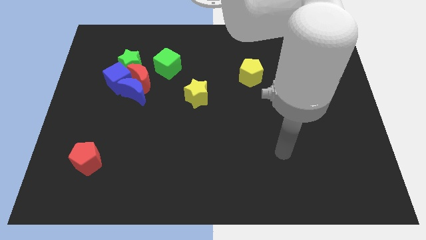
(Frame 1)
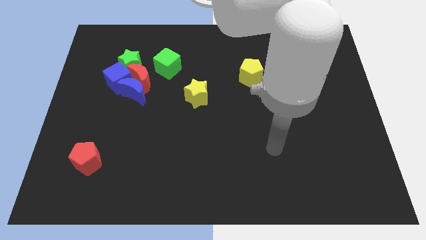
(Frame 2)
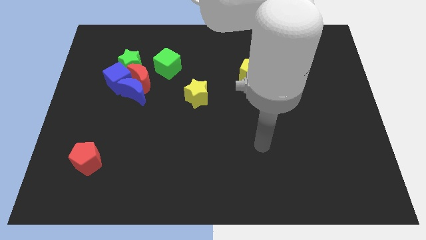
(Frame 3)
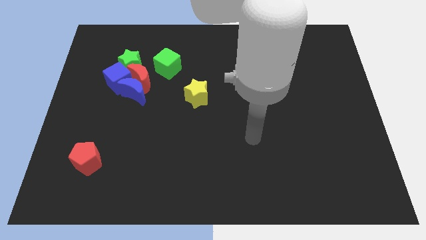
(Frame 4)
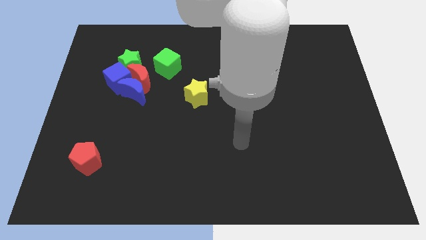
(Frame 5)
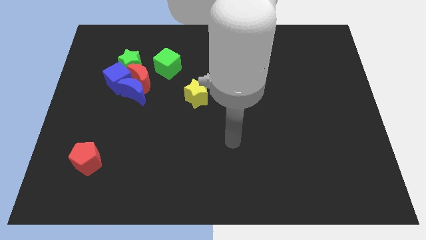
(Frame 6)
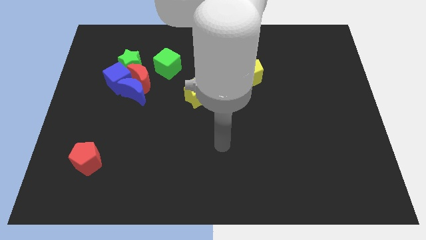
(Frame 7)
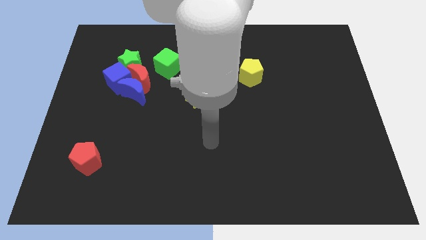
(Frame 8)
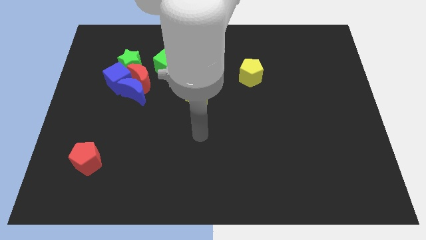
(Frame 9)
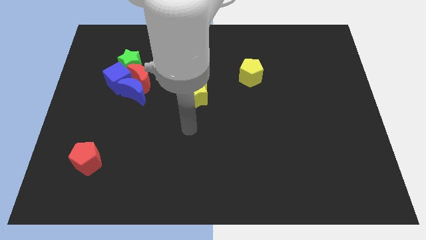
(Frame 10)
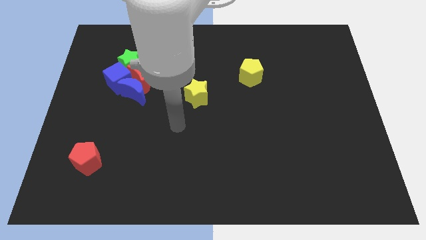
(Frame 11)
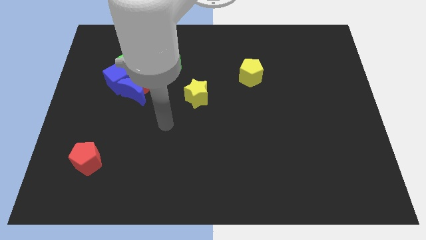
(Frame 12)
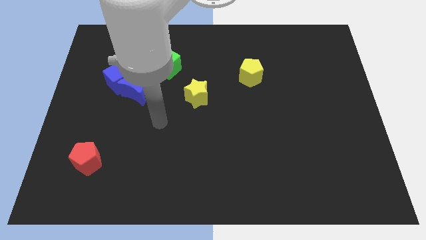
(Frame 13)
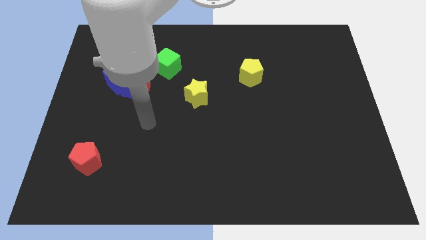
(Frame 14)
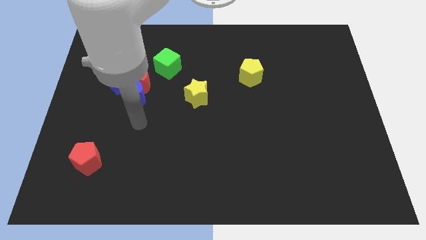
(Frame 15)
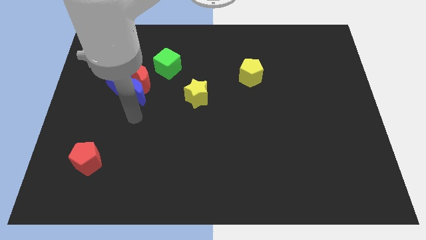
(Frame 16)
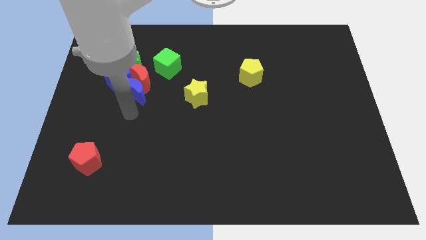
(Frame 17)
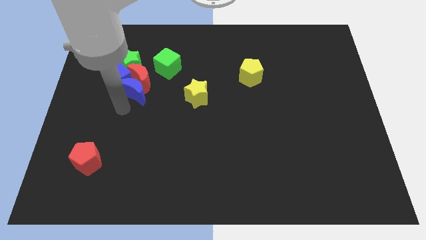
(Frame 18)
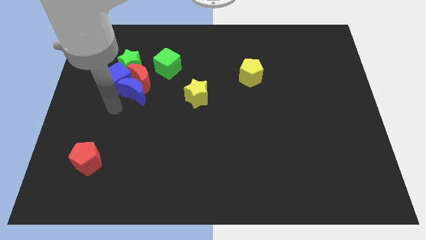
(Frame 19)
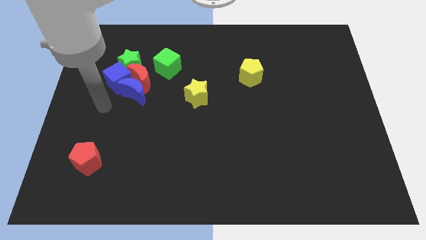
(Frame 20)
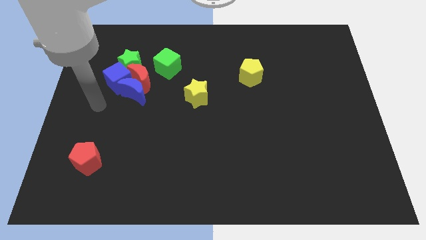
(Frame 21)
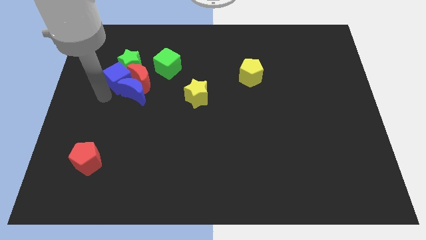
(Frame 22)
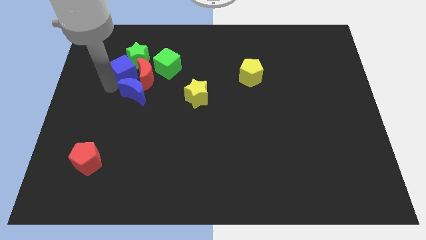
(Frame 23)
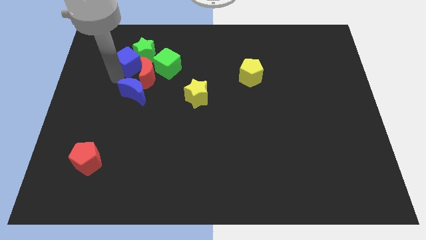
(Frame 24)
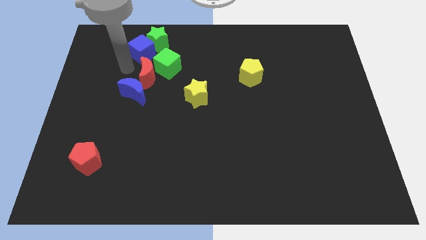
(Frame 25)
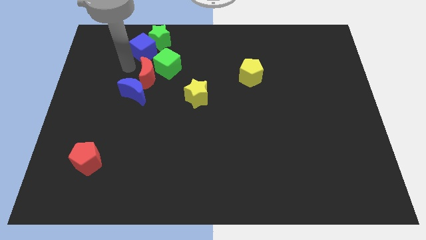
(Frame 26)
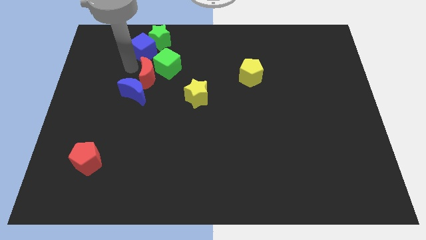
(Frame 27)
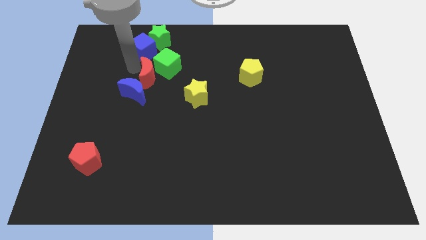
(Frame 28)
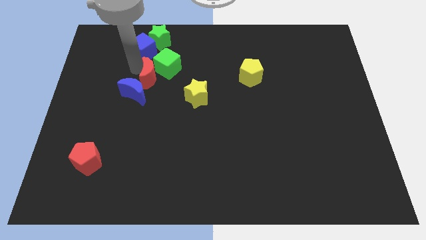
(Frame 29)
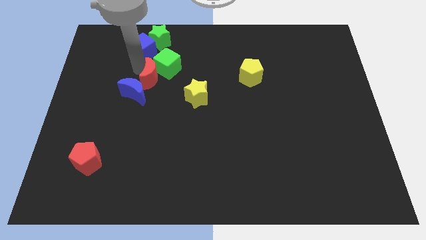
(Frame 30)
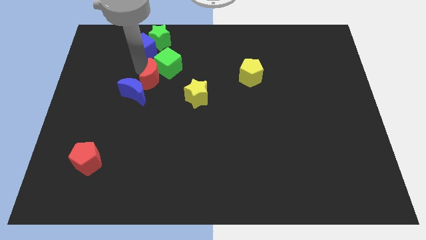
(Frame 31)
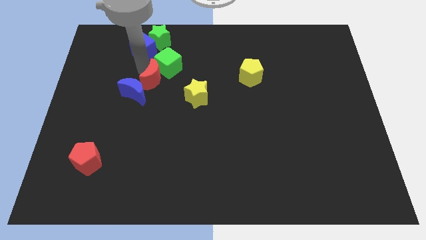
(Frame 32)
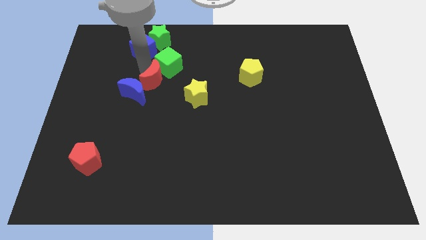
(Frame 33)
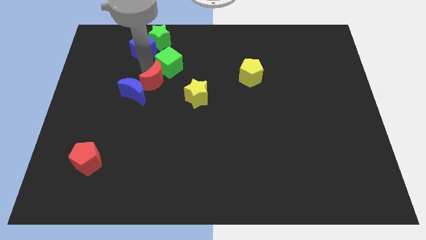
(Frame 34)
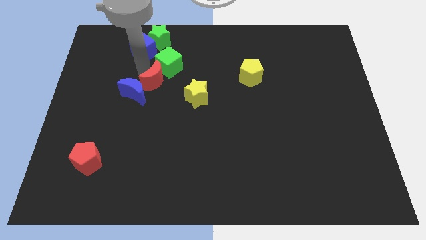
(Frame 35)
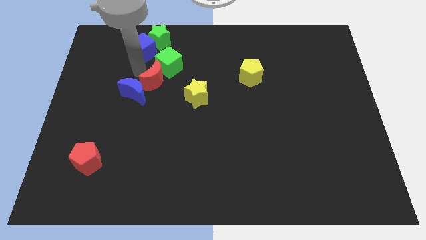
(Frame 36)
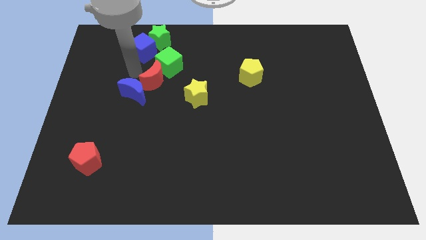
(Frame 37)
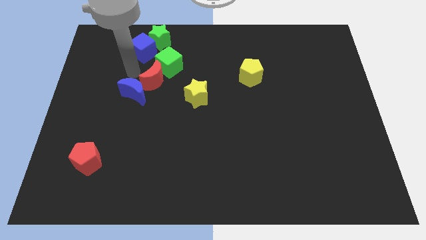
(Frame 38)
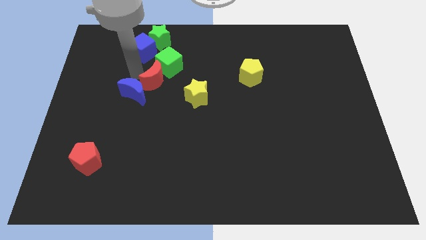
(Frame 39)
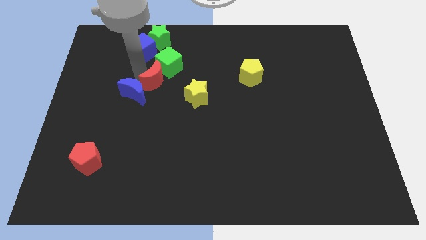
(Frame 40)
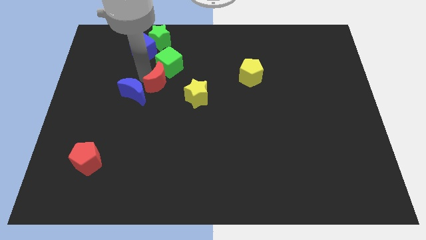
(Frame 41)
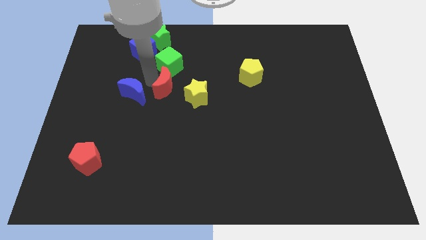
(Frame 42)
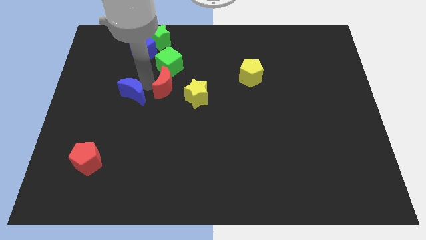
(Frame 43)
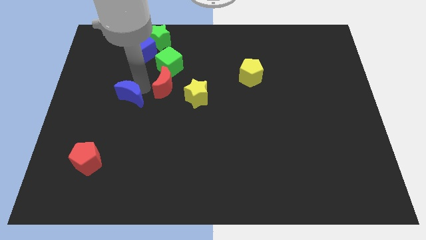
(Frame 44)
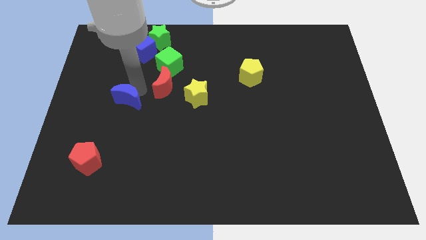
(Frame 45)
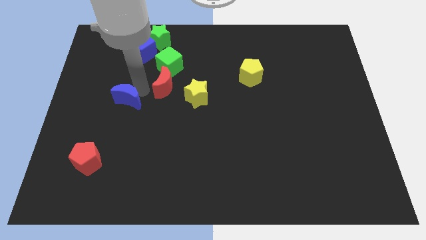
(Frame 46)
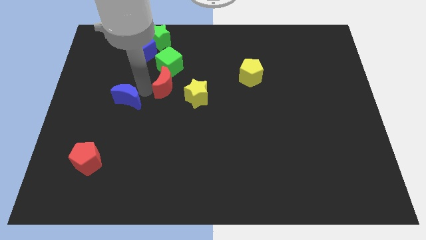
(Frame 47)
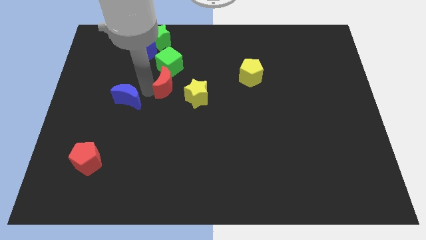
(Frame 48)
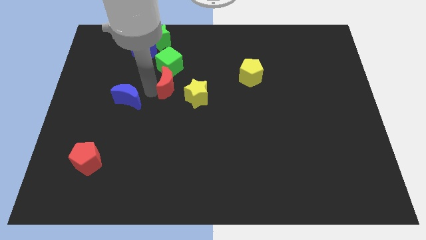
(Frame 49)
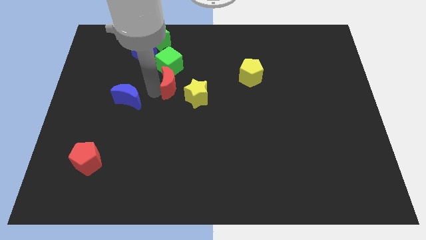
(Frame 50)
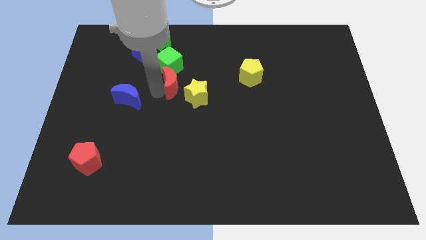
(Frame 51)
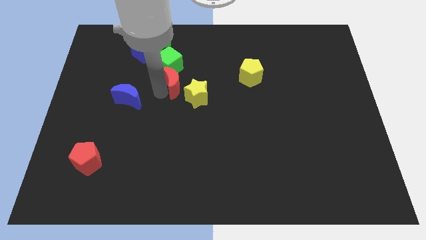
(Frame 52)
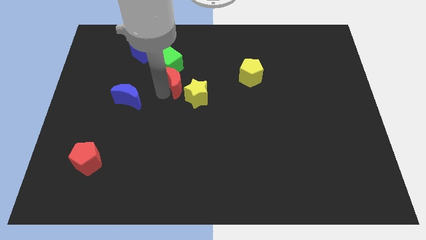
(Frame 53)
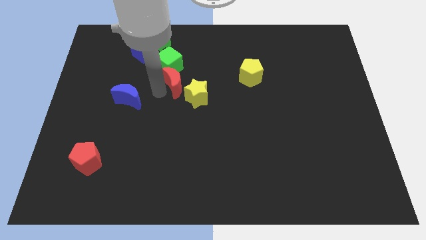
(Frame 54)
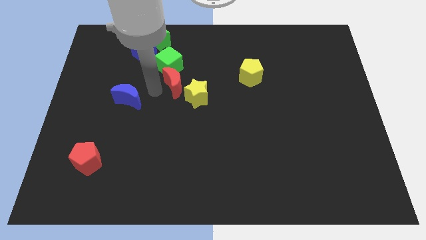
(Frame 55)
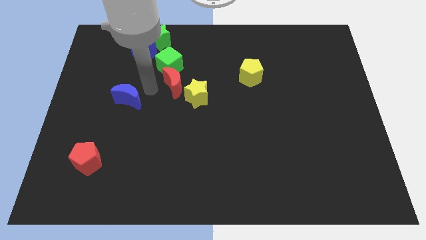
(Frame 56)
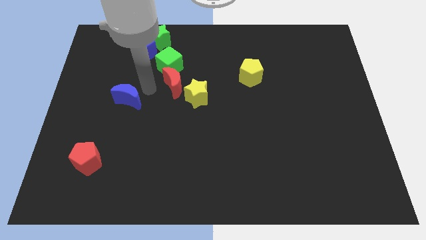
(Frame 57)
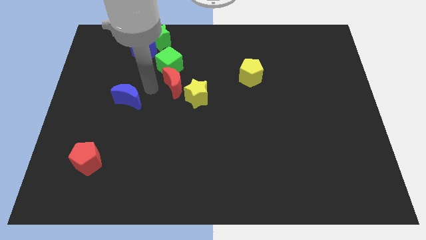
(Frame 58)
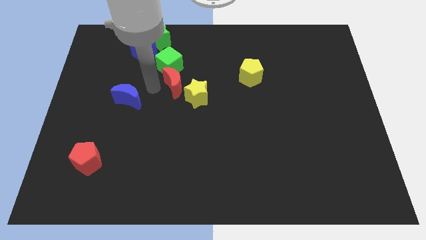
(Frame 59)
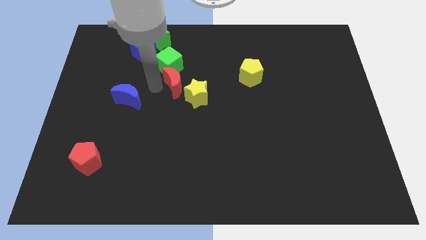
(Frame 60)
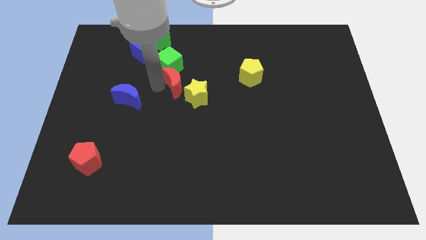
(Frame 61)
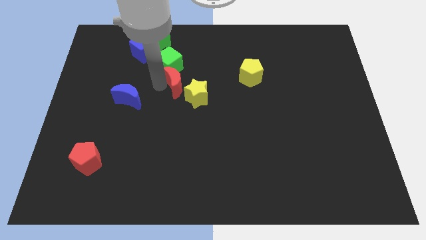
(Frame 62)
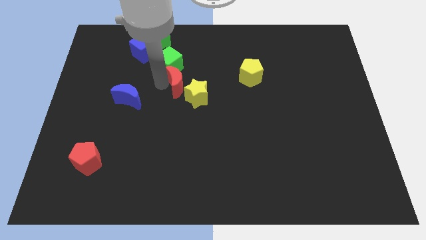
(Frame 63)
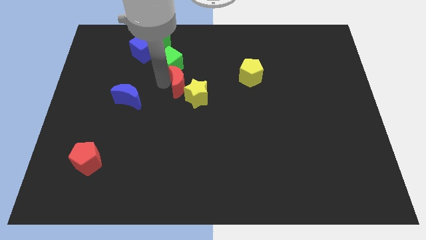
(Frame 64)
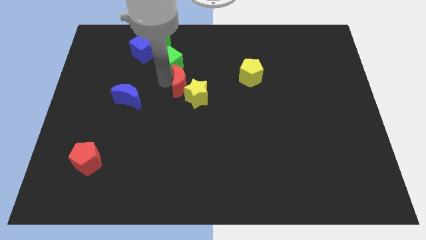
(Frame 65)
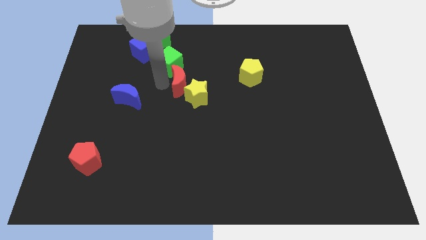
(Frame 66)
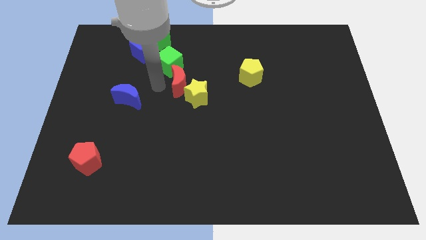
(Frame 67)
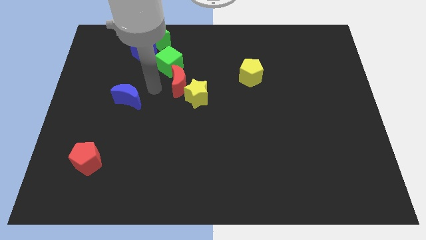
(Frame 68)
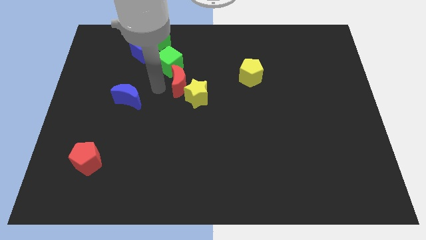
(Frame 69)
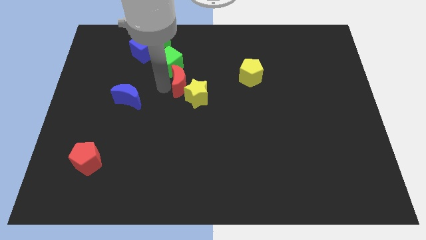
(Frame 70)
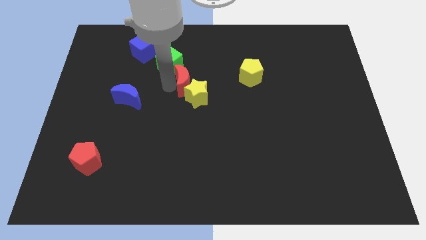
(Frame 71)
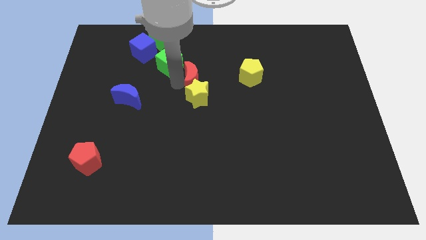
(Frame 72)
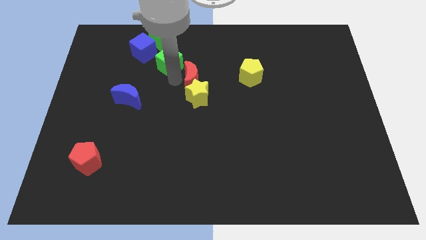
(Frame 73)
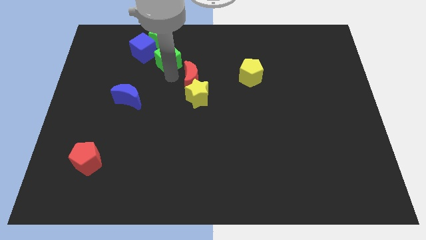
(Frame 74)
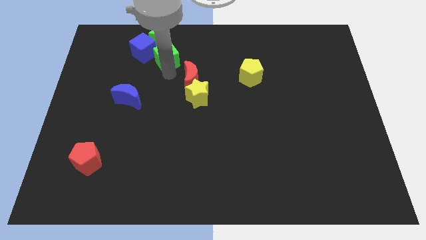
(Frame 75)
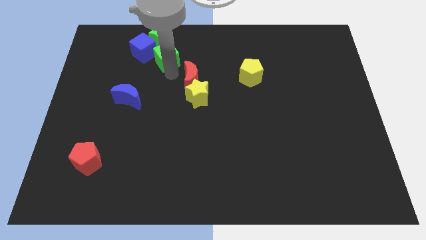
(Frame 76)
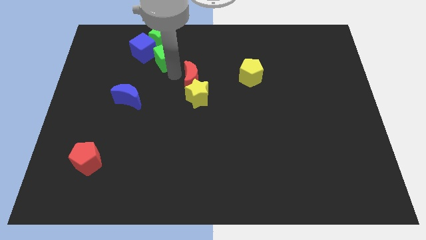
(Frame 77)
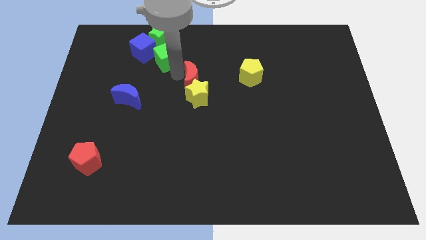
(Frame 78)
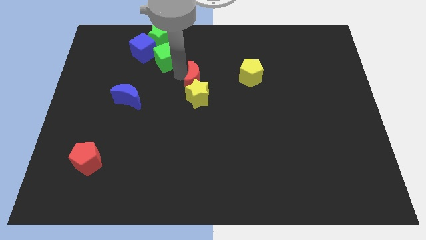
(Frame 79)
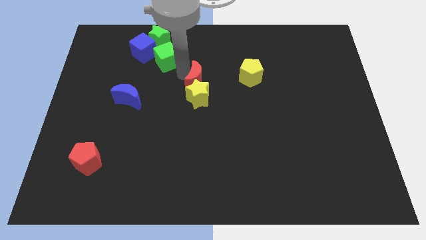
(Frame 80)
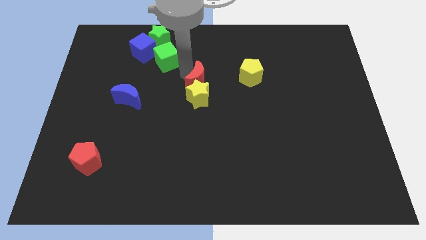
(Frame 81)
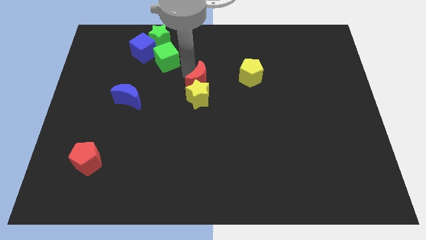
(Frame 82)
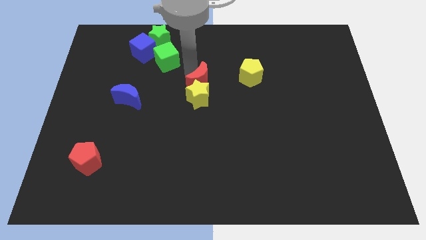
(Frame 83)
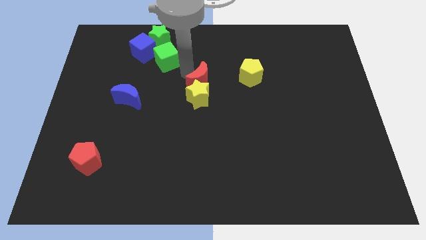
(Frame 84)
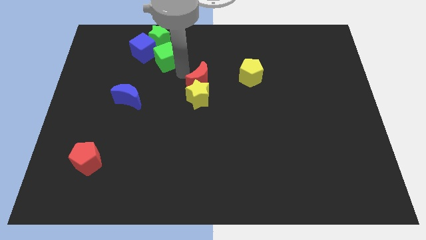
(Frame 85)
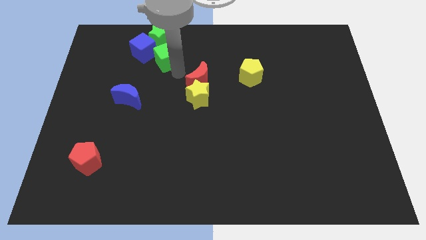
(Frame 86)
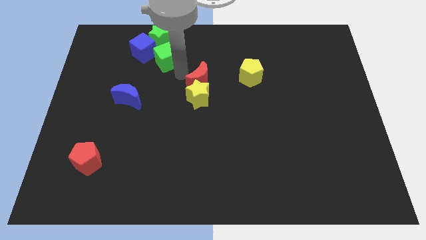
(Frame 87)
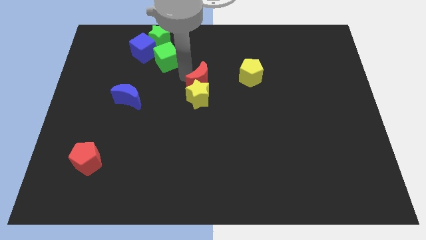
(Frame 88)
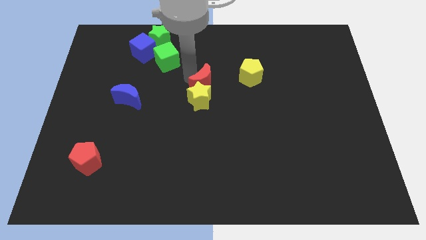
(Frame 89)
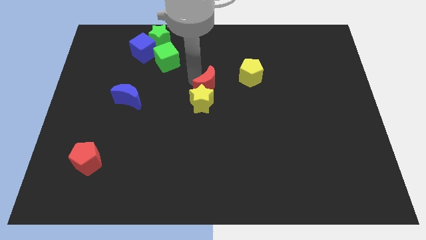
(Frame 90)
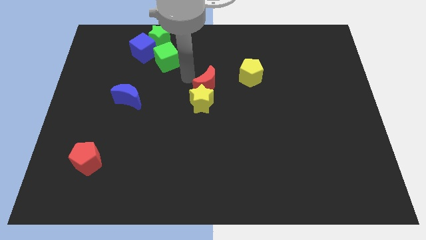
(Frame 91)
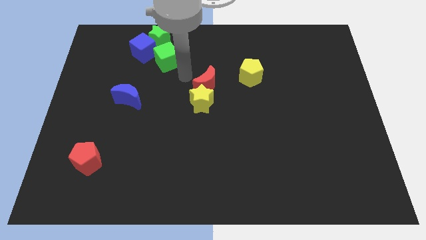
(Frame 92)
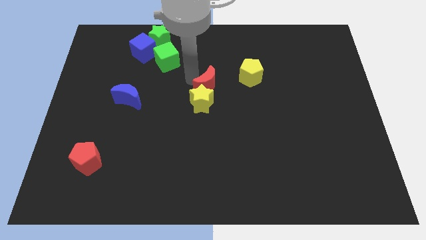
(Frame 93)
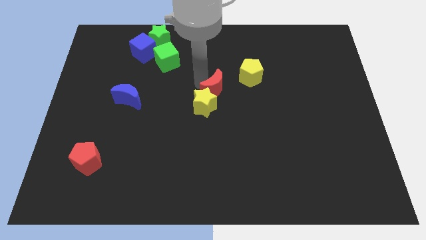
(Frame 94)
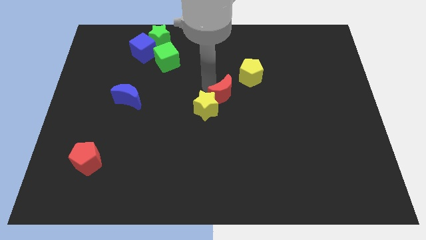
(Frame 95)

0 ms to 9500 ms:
push the red moon right of the yellow star
